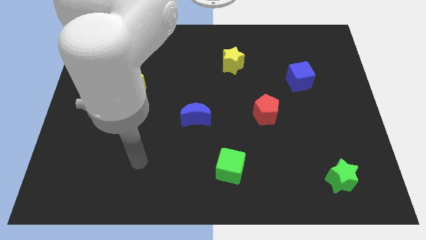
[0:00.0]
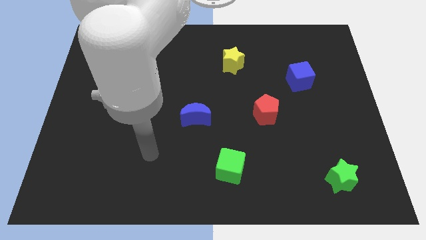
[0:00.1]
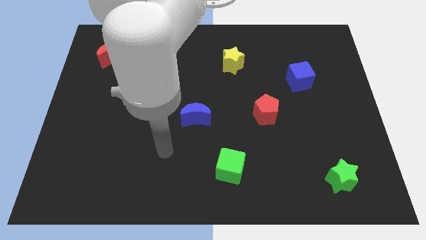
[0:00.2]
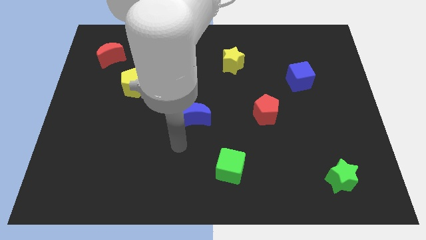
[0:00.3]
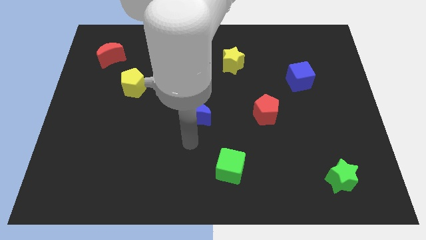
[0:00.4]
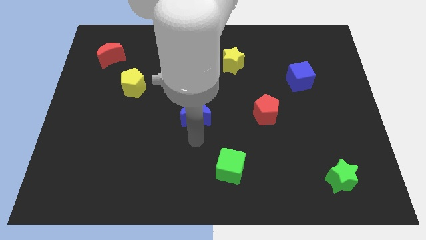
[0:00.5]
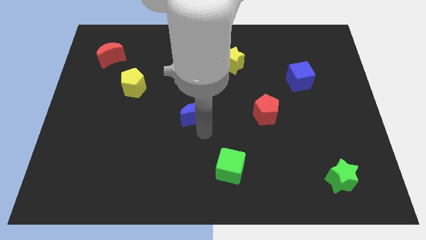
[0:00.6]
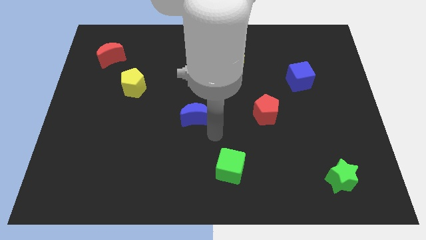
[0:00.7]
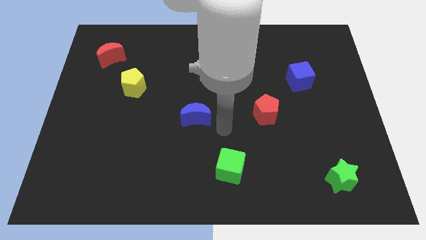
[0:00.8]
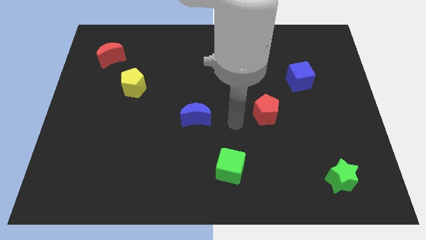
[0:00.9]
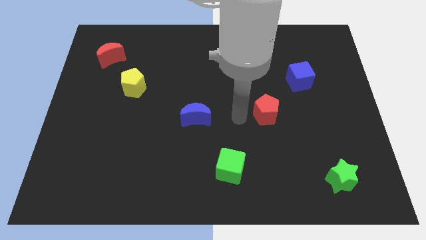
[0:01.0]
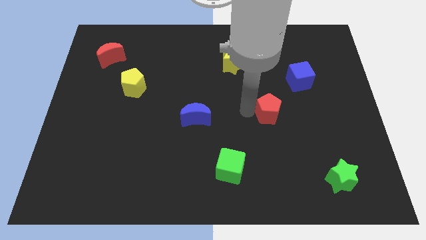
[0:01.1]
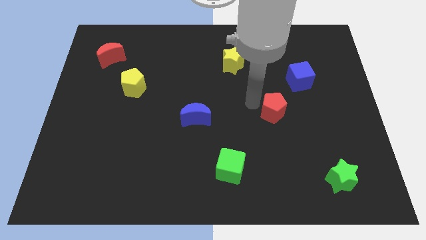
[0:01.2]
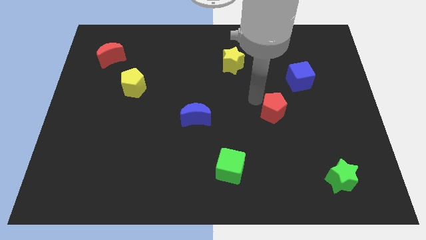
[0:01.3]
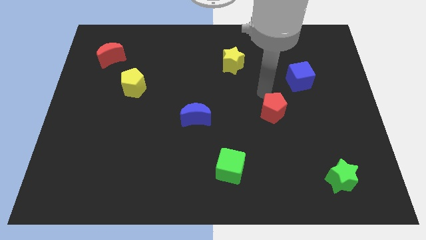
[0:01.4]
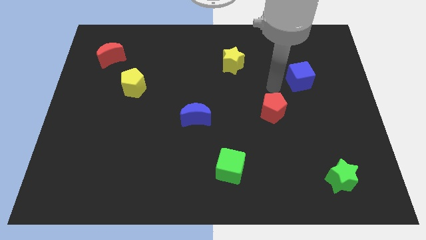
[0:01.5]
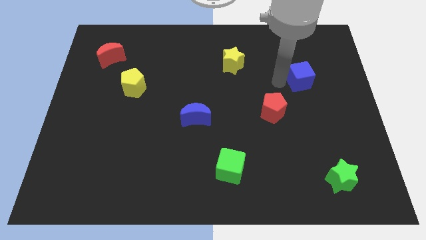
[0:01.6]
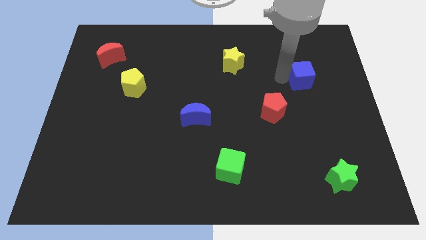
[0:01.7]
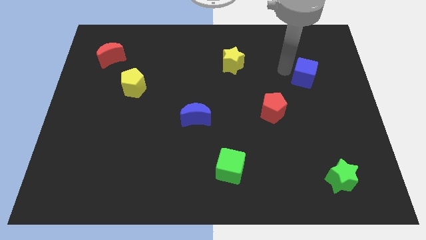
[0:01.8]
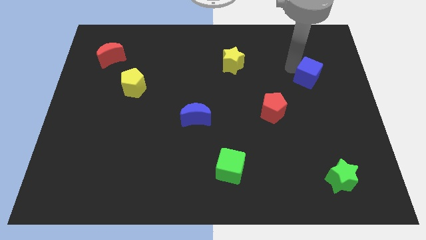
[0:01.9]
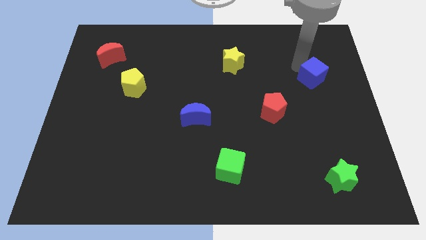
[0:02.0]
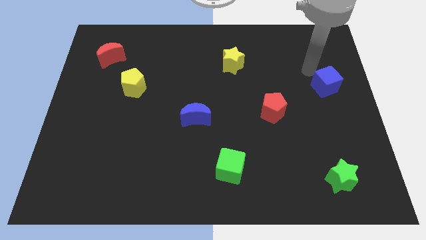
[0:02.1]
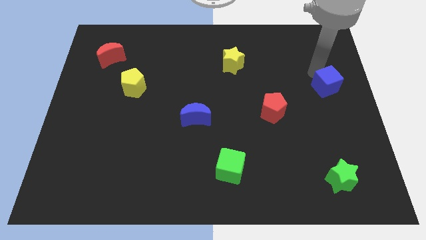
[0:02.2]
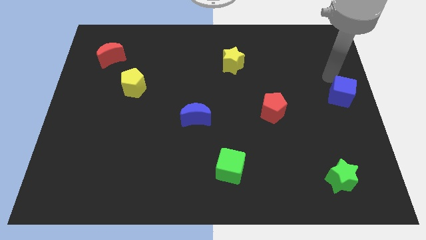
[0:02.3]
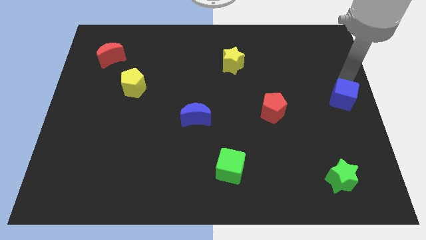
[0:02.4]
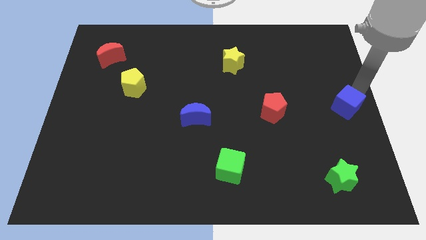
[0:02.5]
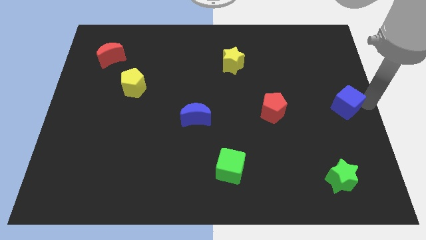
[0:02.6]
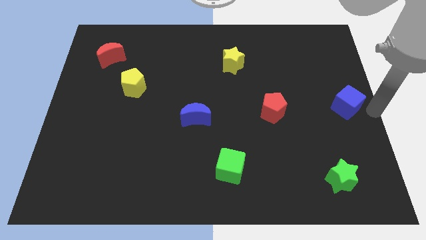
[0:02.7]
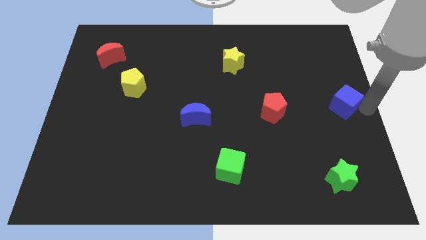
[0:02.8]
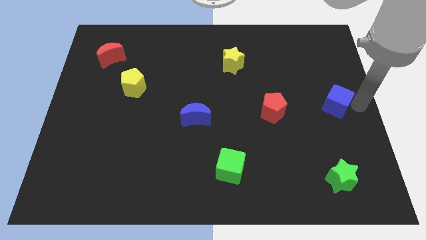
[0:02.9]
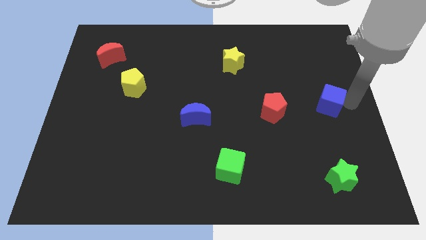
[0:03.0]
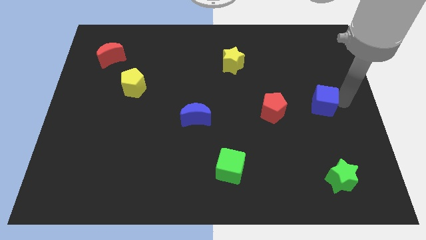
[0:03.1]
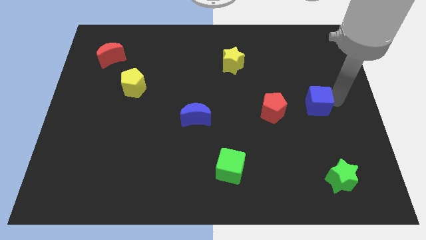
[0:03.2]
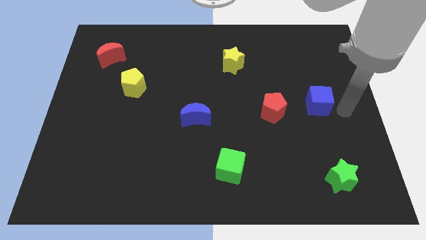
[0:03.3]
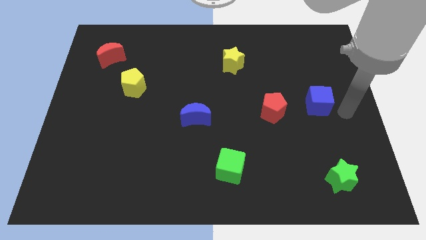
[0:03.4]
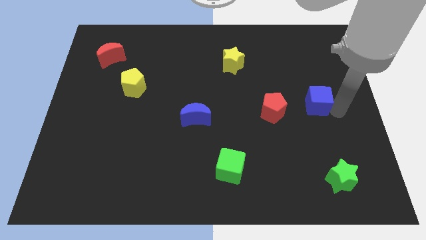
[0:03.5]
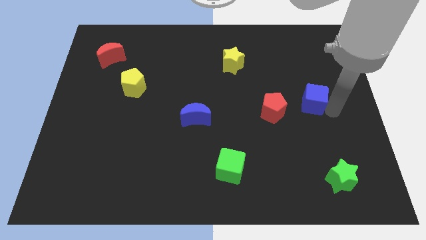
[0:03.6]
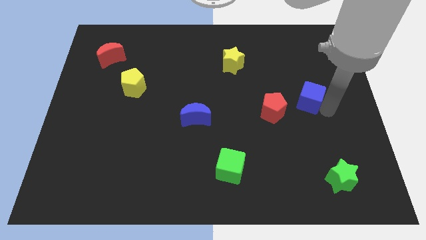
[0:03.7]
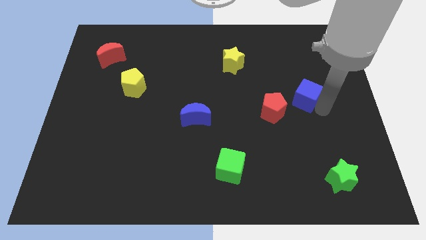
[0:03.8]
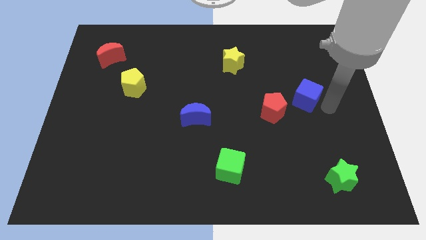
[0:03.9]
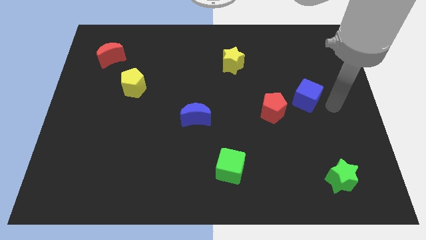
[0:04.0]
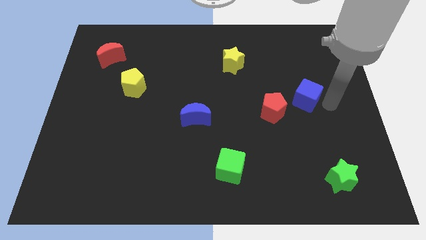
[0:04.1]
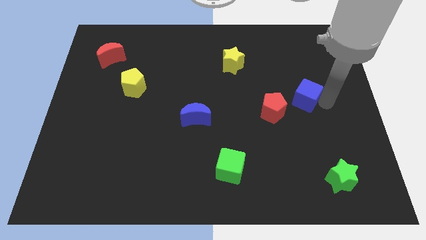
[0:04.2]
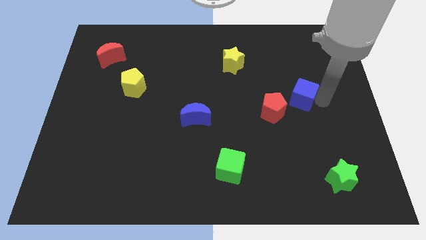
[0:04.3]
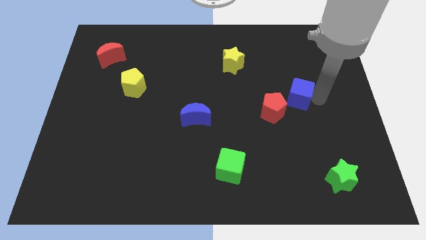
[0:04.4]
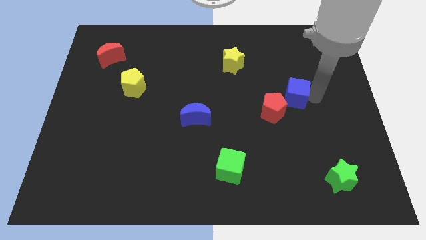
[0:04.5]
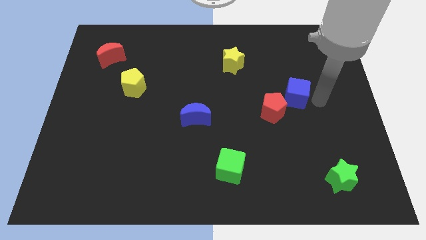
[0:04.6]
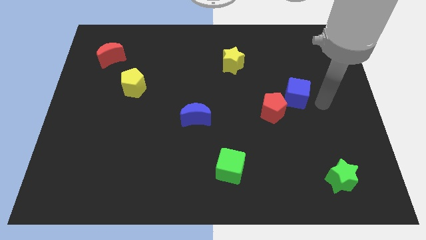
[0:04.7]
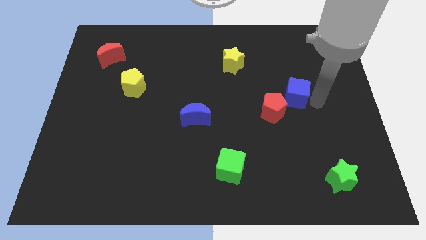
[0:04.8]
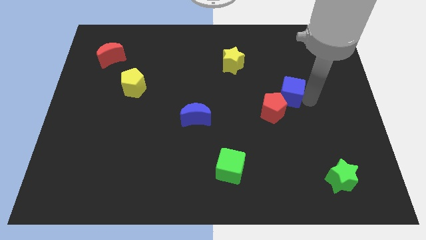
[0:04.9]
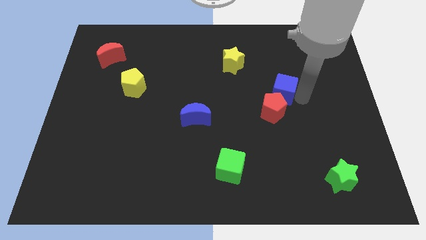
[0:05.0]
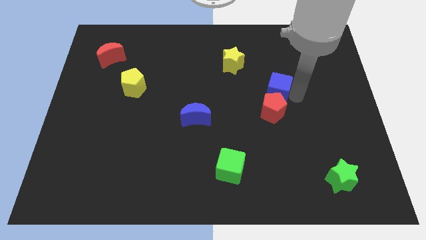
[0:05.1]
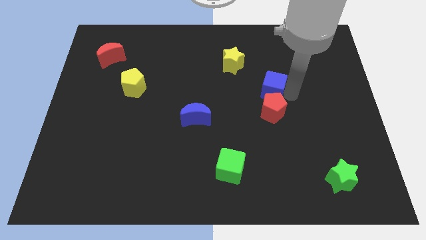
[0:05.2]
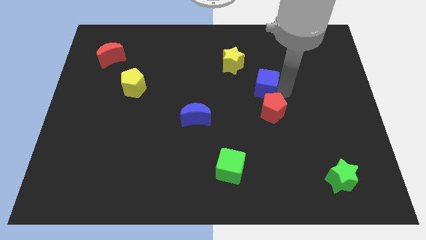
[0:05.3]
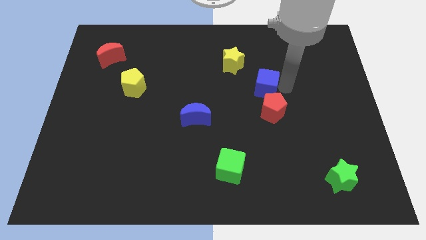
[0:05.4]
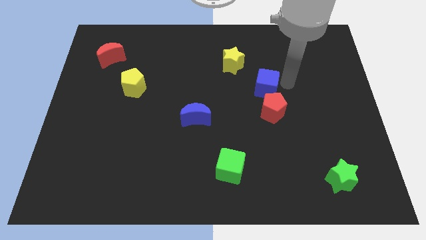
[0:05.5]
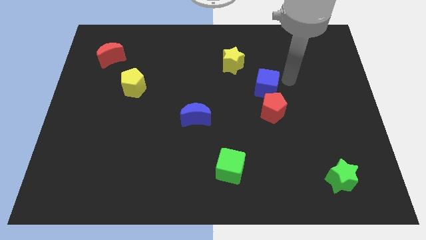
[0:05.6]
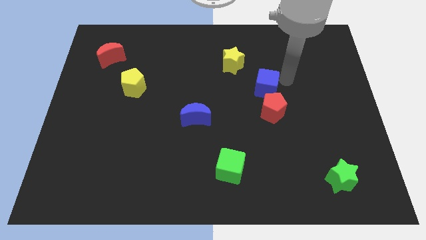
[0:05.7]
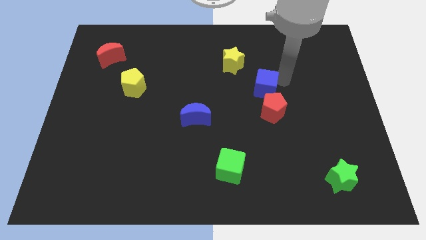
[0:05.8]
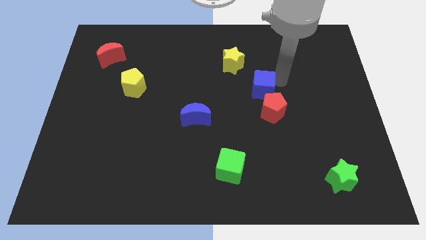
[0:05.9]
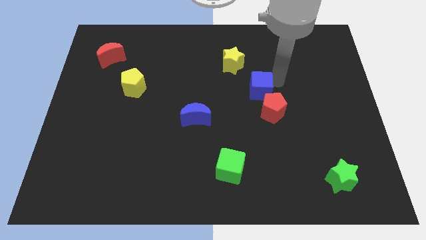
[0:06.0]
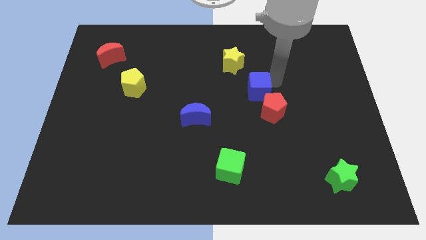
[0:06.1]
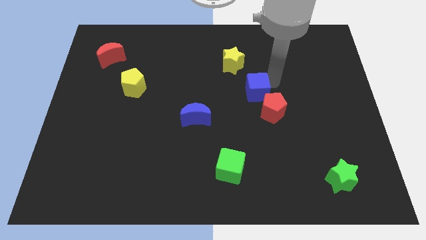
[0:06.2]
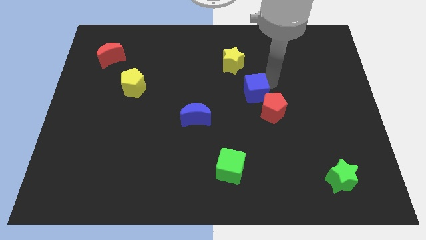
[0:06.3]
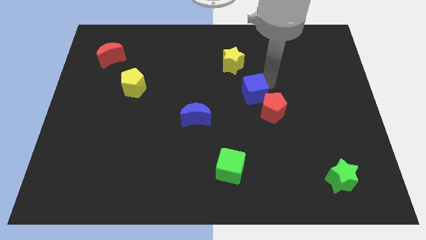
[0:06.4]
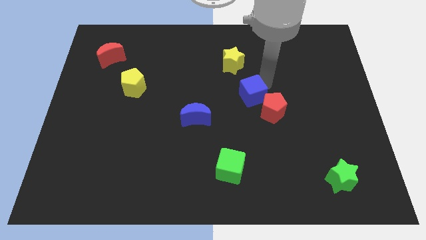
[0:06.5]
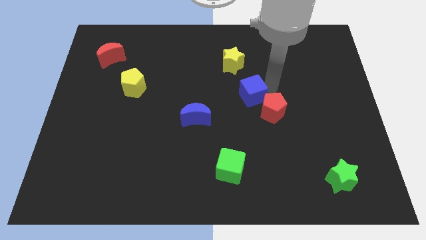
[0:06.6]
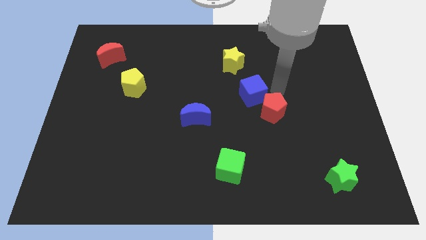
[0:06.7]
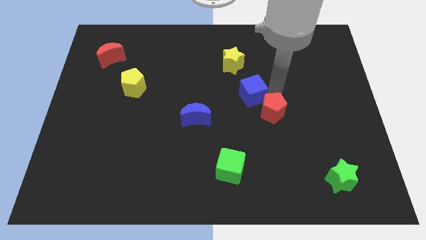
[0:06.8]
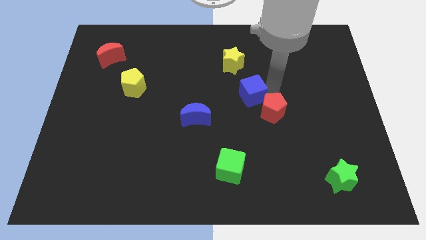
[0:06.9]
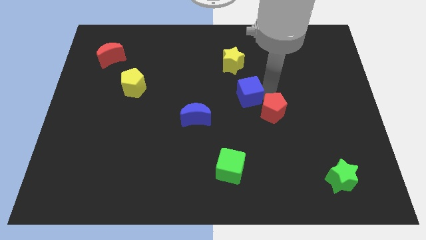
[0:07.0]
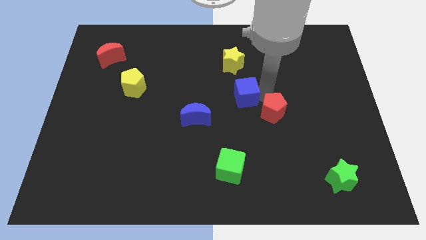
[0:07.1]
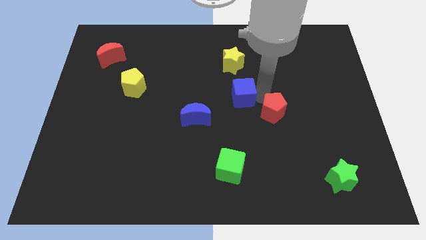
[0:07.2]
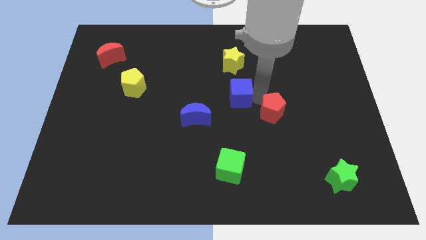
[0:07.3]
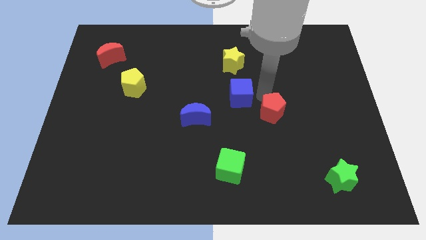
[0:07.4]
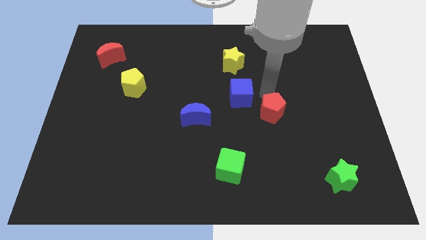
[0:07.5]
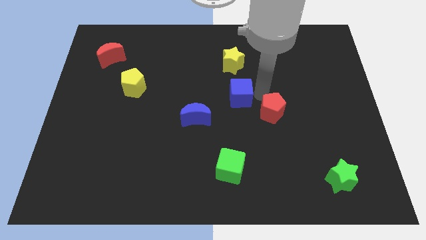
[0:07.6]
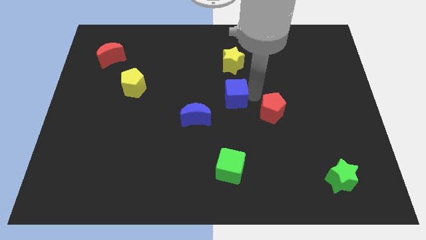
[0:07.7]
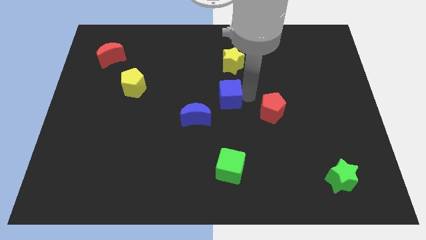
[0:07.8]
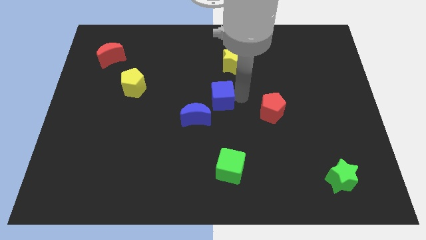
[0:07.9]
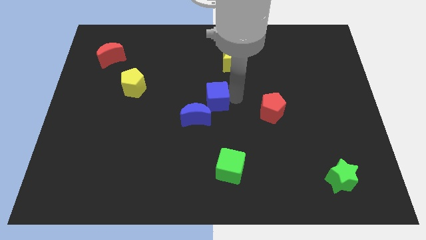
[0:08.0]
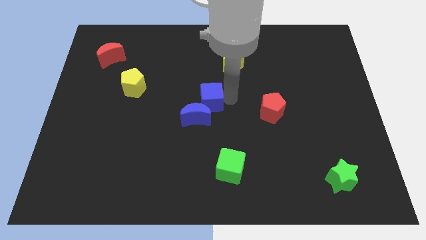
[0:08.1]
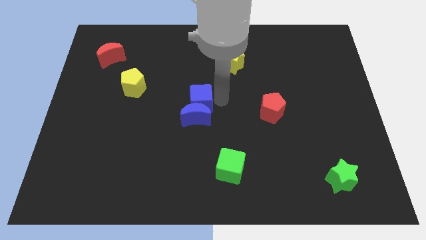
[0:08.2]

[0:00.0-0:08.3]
slide the blue cube diagonally up and to the left of the blue moon
